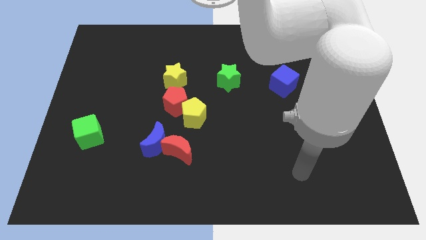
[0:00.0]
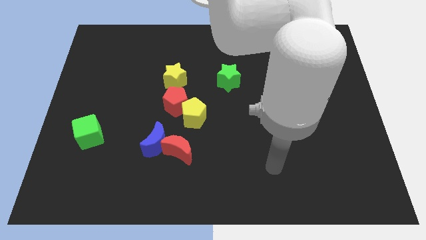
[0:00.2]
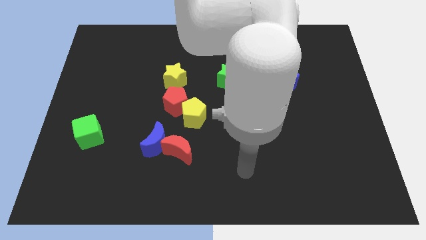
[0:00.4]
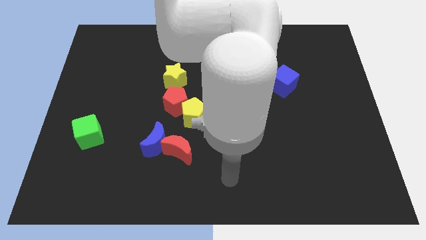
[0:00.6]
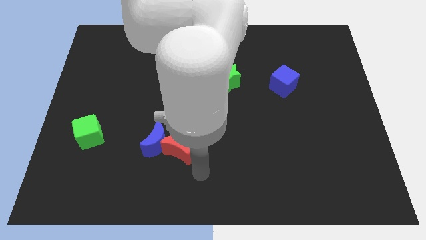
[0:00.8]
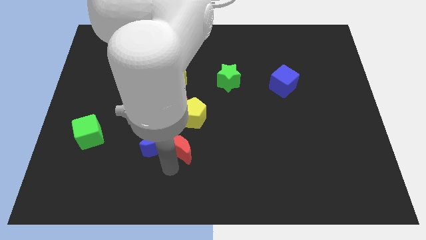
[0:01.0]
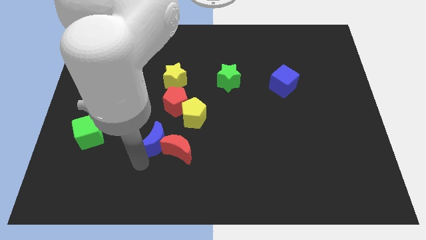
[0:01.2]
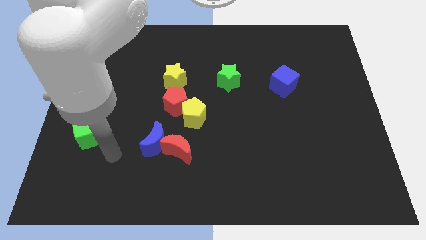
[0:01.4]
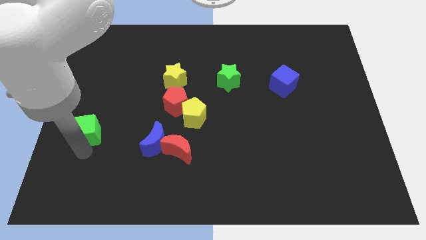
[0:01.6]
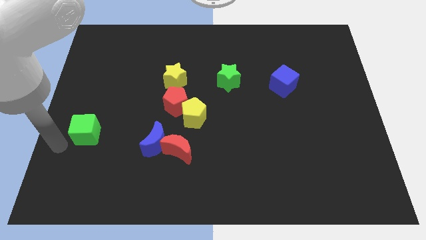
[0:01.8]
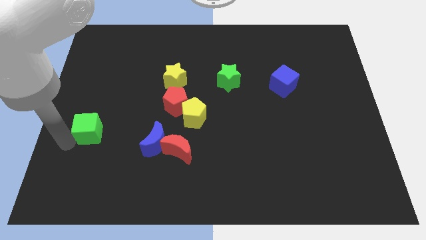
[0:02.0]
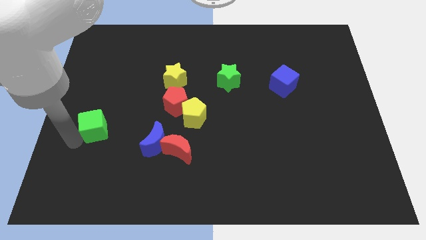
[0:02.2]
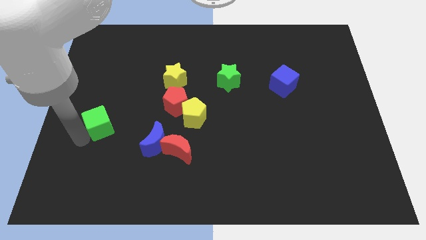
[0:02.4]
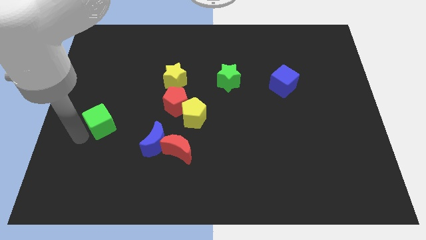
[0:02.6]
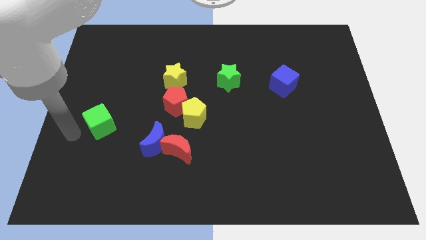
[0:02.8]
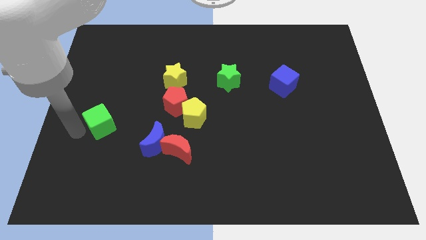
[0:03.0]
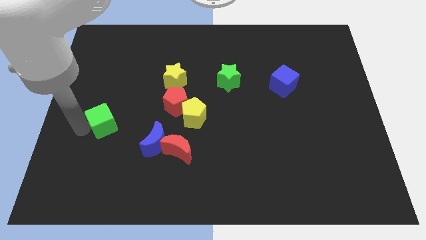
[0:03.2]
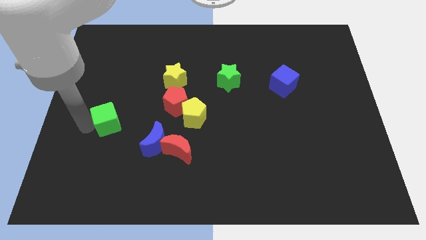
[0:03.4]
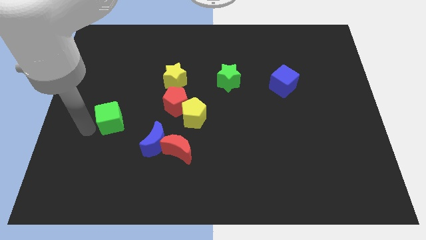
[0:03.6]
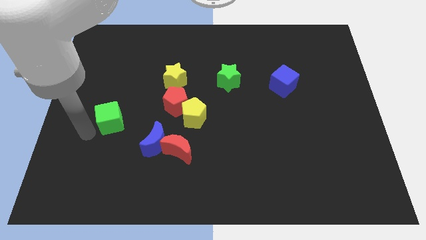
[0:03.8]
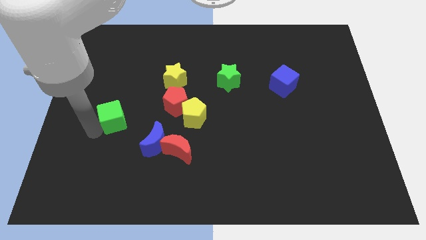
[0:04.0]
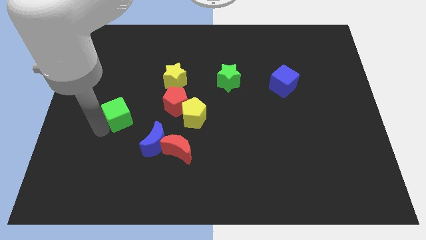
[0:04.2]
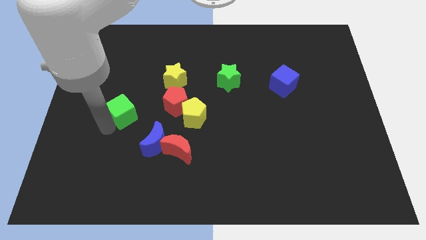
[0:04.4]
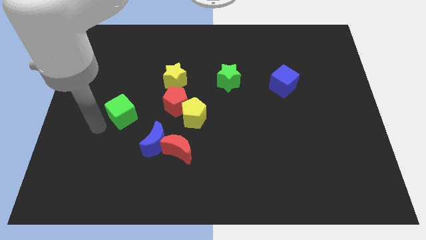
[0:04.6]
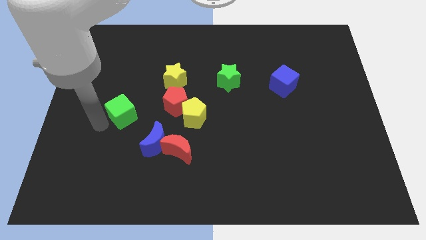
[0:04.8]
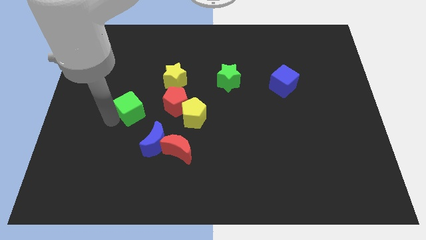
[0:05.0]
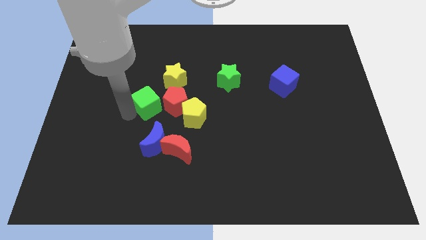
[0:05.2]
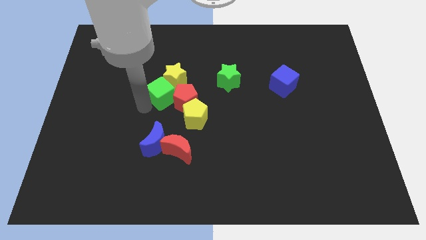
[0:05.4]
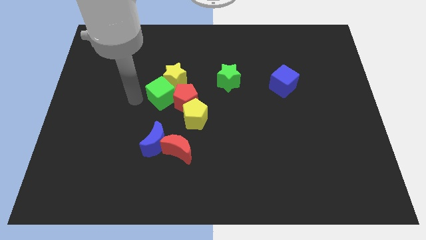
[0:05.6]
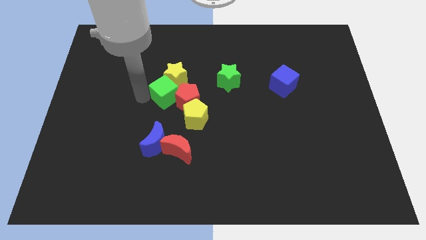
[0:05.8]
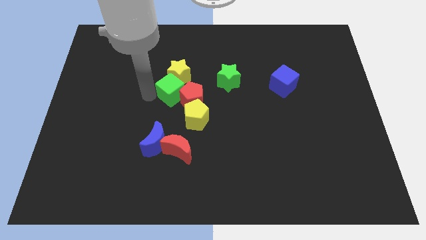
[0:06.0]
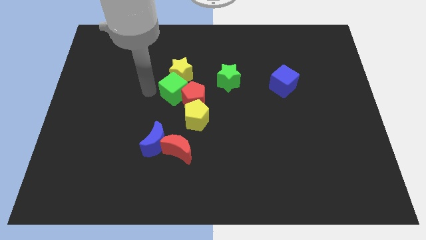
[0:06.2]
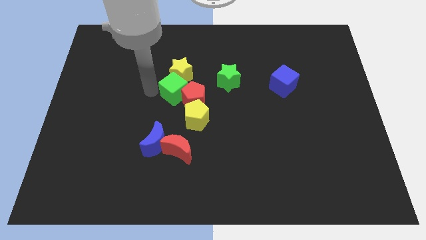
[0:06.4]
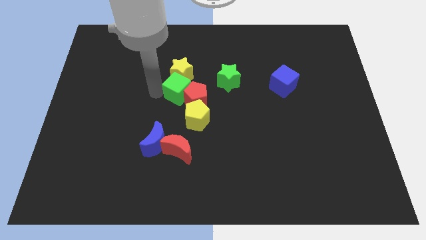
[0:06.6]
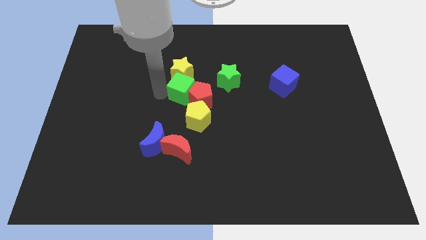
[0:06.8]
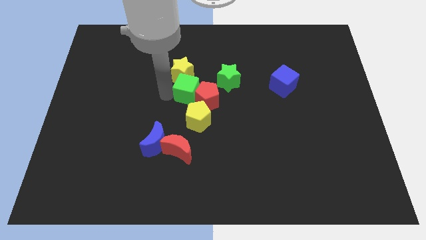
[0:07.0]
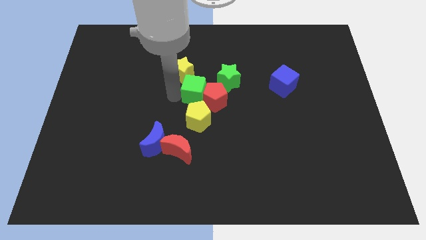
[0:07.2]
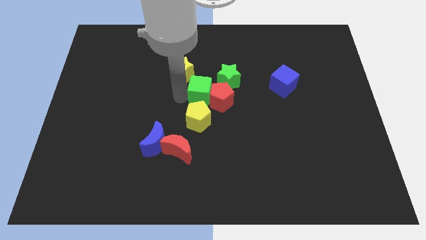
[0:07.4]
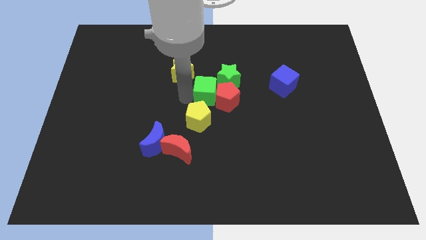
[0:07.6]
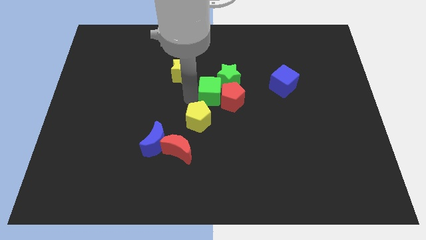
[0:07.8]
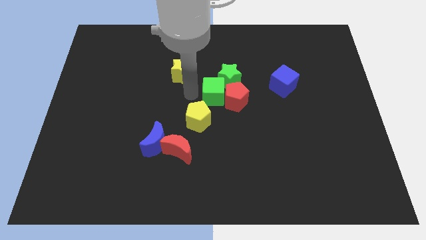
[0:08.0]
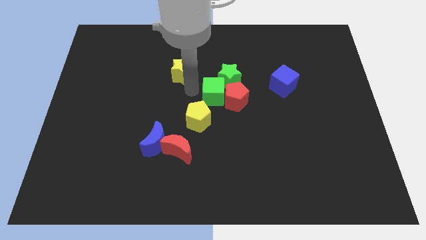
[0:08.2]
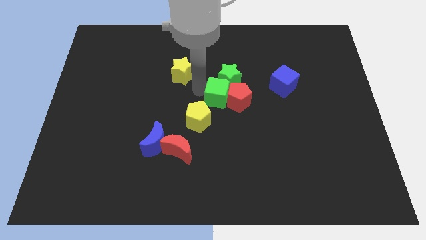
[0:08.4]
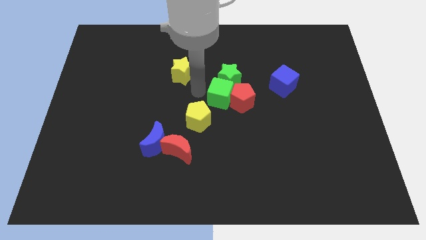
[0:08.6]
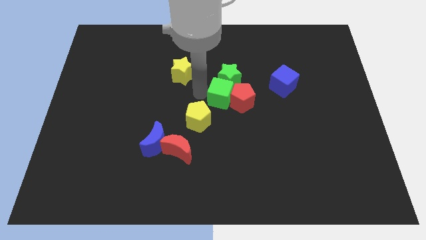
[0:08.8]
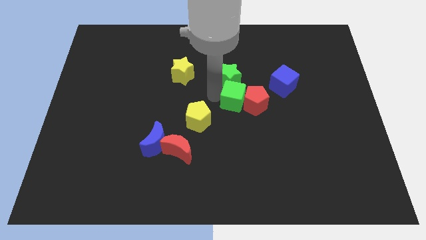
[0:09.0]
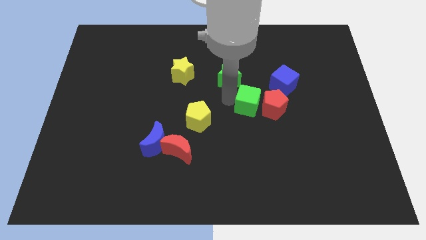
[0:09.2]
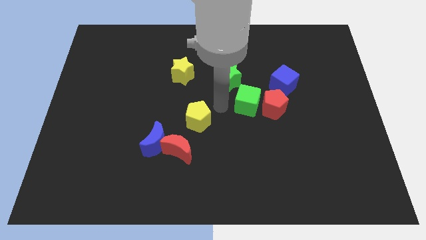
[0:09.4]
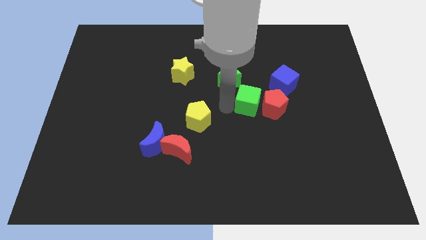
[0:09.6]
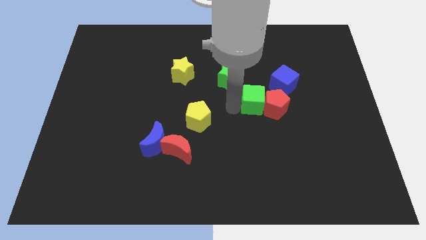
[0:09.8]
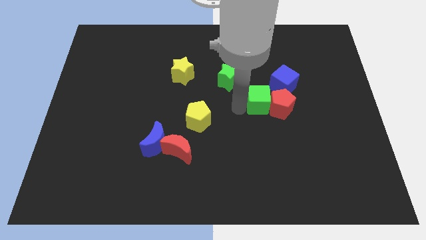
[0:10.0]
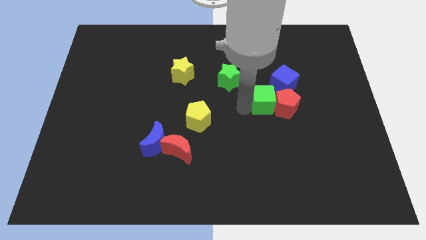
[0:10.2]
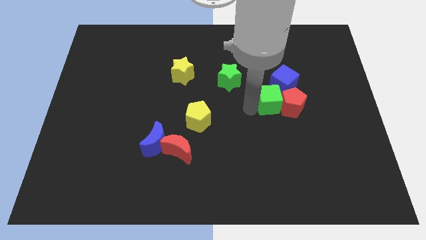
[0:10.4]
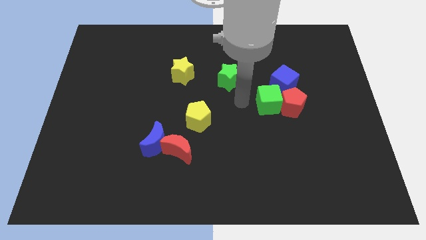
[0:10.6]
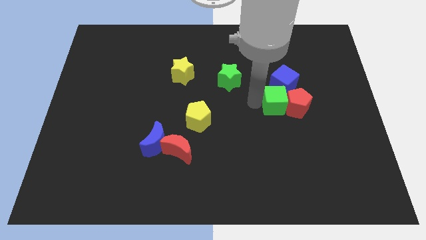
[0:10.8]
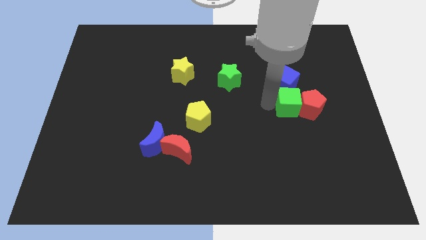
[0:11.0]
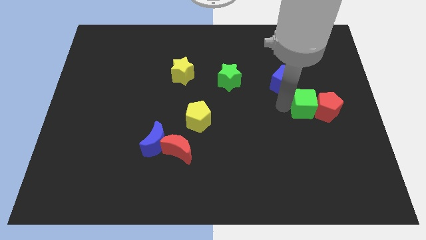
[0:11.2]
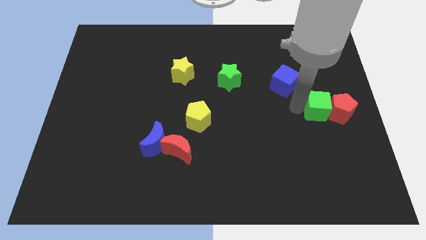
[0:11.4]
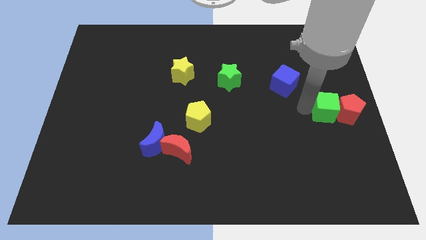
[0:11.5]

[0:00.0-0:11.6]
put the green cube to the right side of the board

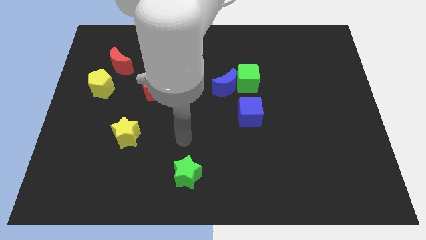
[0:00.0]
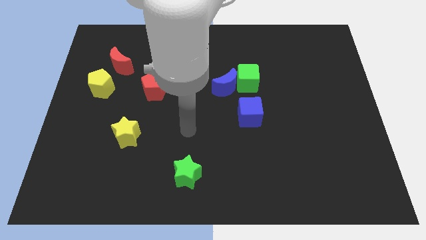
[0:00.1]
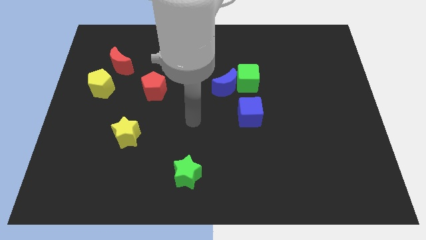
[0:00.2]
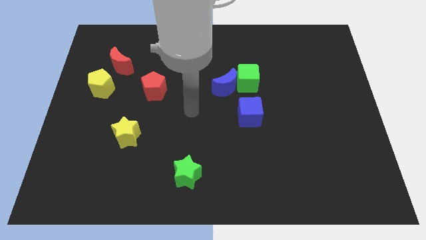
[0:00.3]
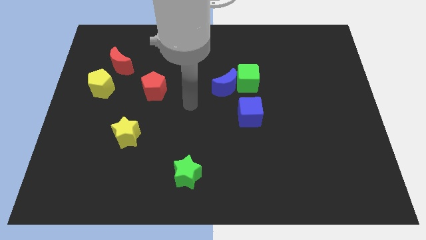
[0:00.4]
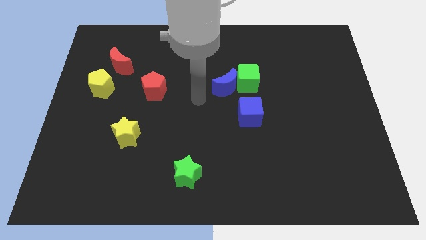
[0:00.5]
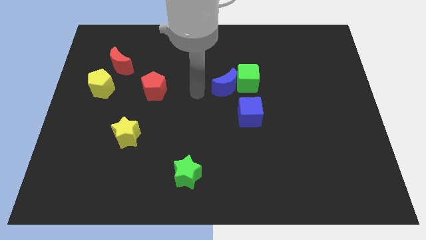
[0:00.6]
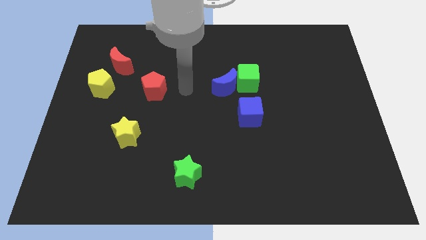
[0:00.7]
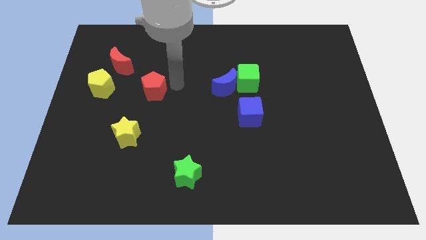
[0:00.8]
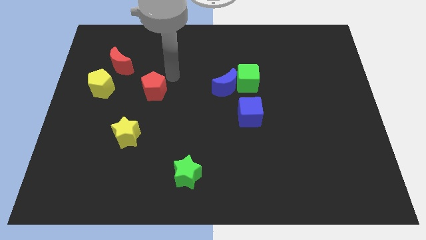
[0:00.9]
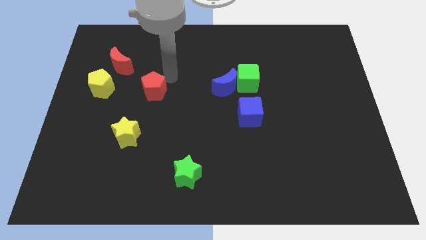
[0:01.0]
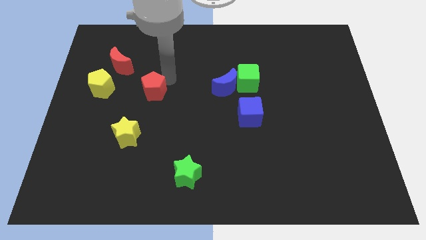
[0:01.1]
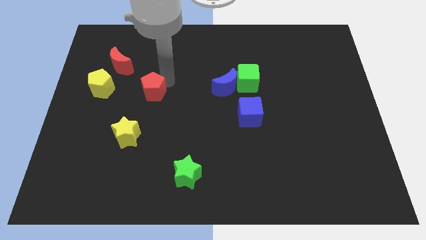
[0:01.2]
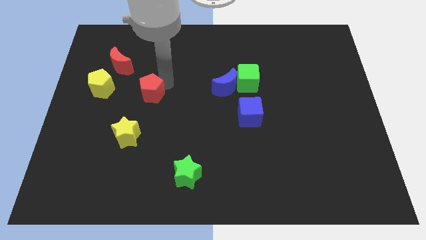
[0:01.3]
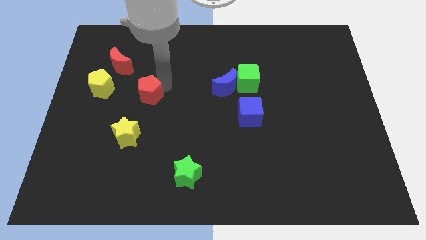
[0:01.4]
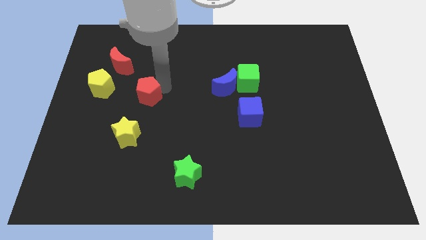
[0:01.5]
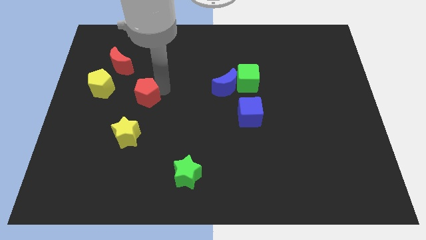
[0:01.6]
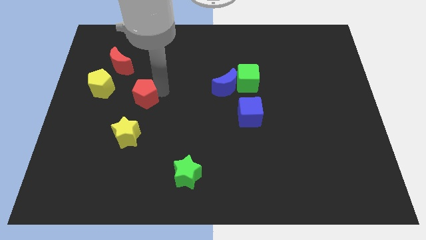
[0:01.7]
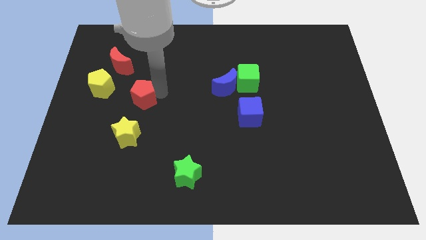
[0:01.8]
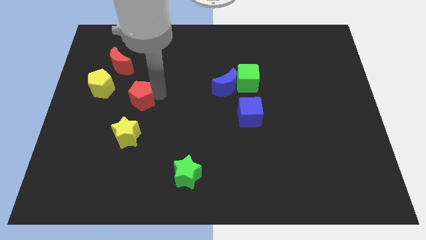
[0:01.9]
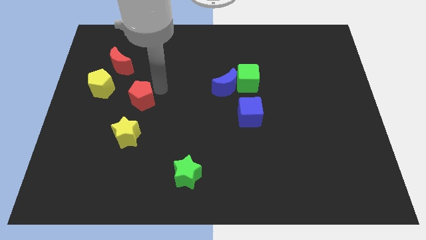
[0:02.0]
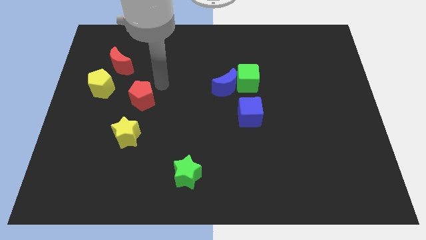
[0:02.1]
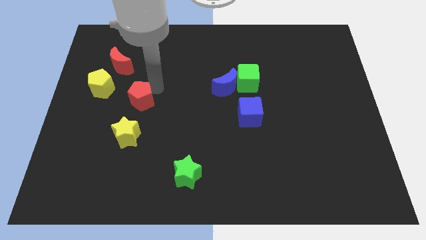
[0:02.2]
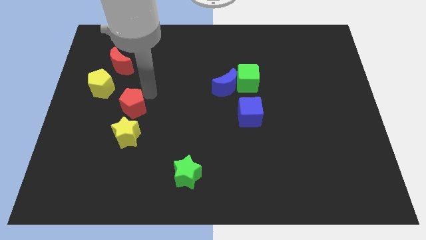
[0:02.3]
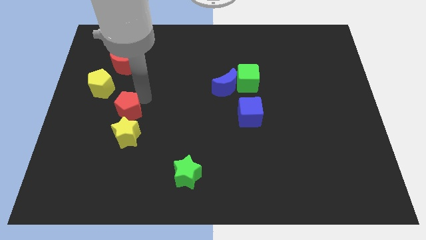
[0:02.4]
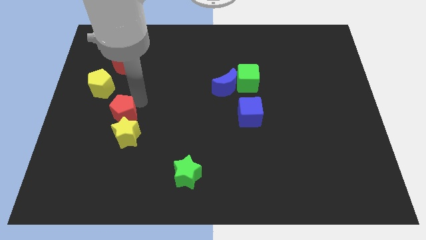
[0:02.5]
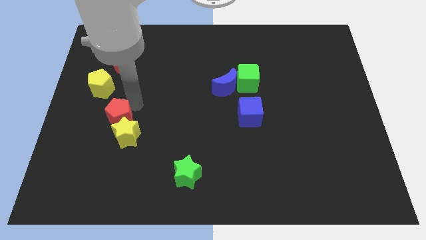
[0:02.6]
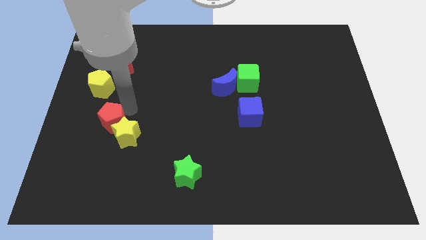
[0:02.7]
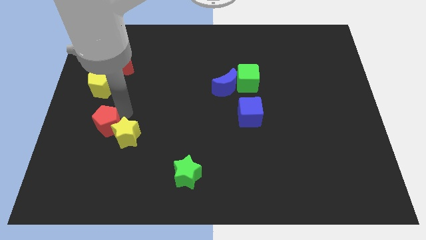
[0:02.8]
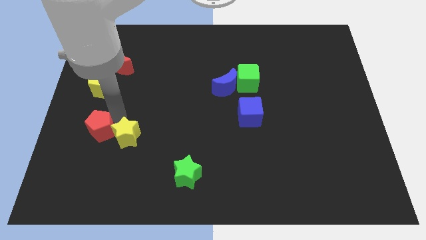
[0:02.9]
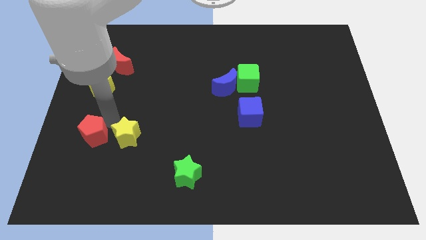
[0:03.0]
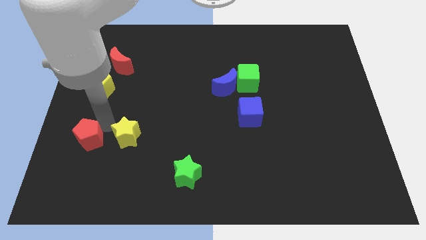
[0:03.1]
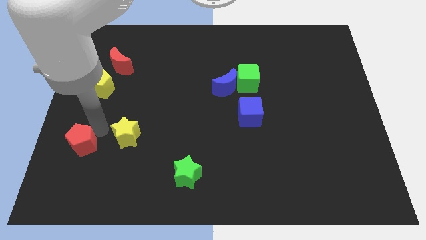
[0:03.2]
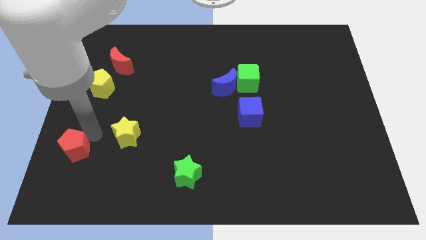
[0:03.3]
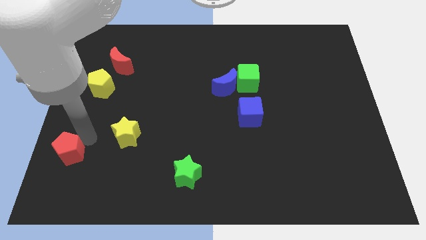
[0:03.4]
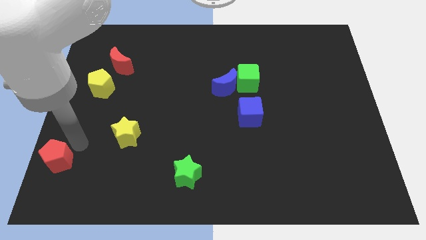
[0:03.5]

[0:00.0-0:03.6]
push the red pentagon to the bottom left
